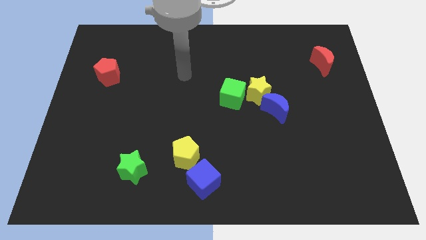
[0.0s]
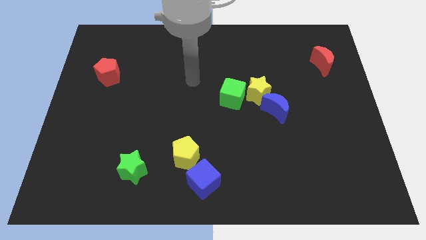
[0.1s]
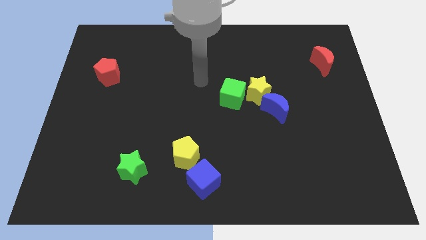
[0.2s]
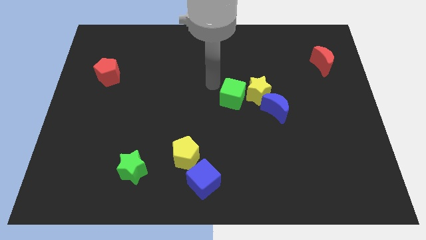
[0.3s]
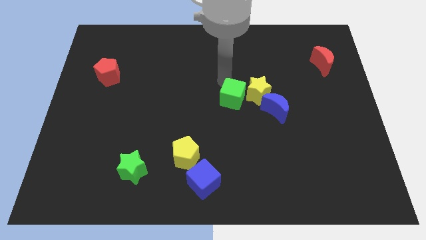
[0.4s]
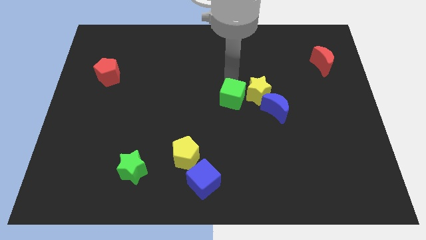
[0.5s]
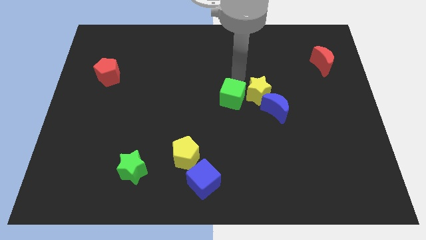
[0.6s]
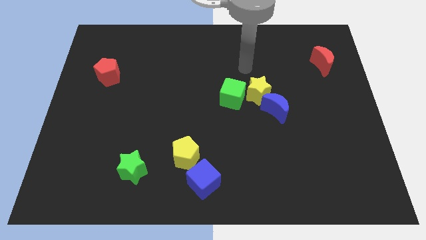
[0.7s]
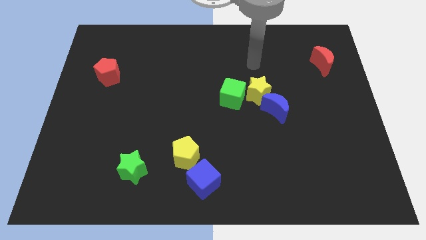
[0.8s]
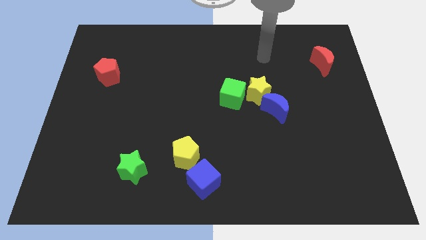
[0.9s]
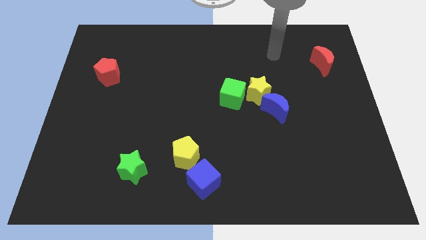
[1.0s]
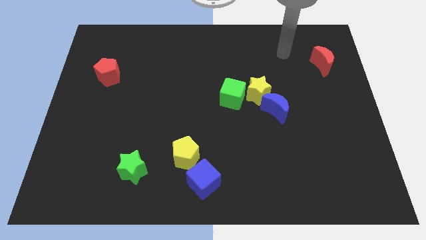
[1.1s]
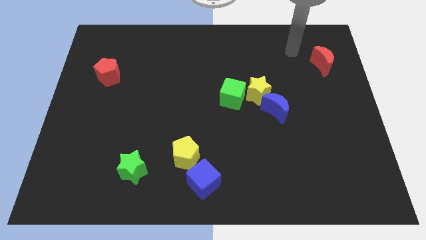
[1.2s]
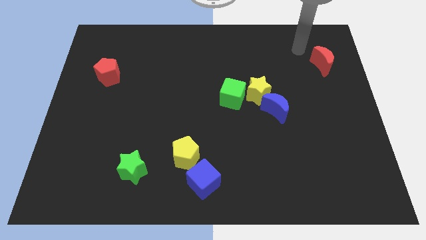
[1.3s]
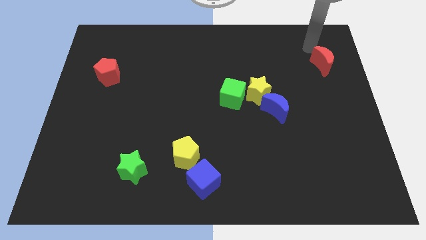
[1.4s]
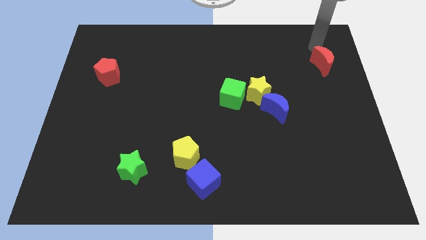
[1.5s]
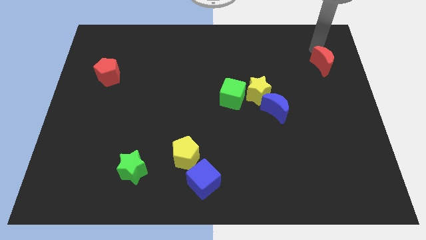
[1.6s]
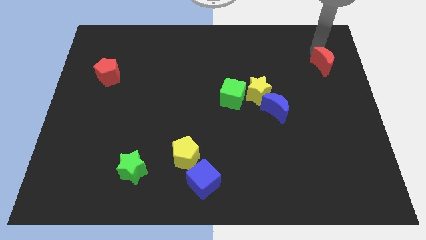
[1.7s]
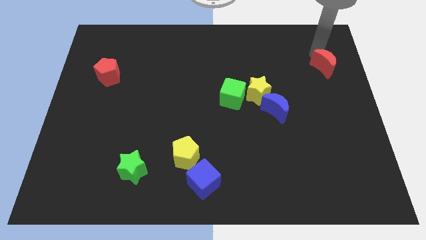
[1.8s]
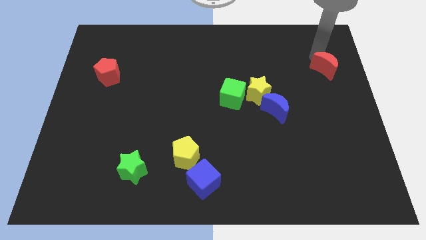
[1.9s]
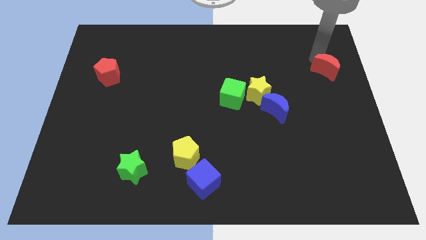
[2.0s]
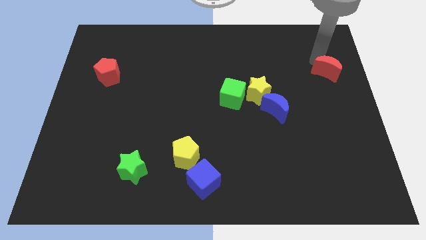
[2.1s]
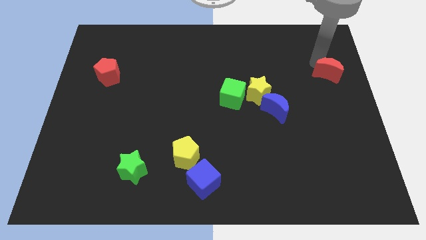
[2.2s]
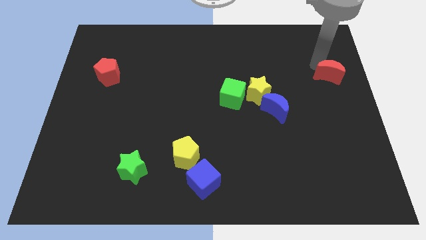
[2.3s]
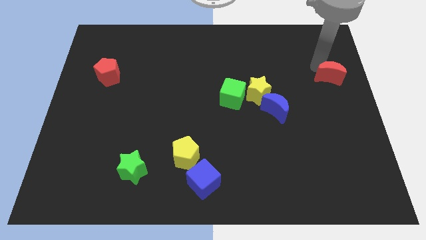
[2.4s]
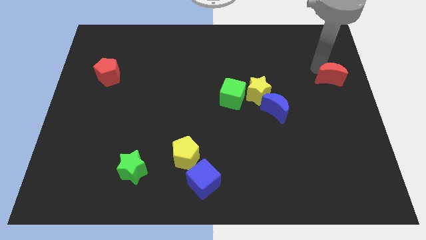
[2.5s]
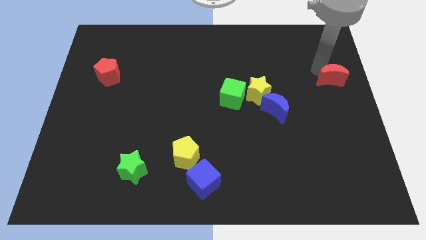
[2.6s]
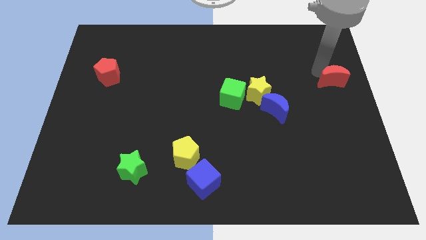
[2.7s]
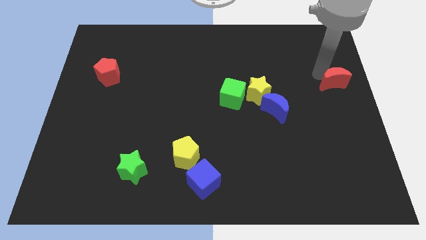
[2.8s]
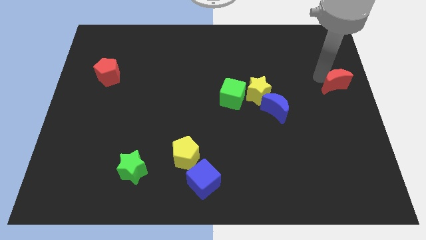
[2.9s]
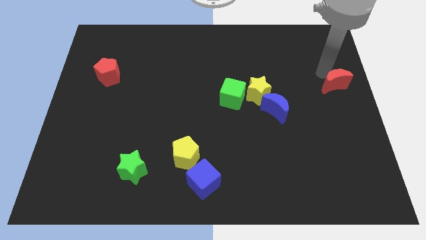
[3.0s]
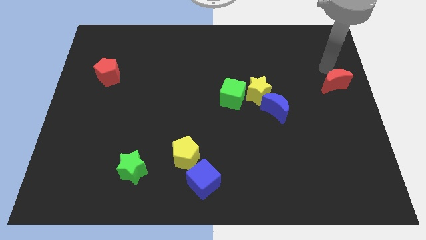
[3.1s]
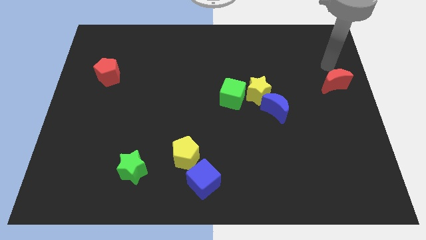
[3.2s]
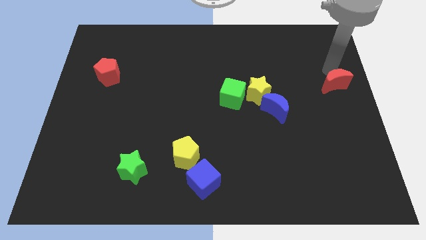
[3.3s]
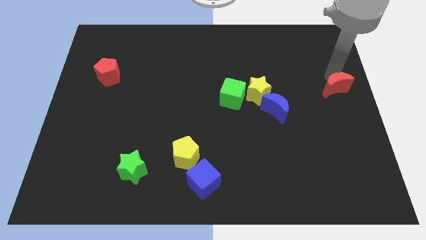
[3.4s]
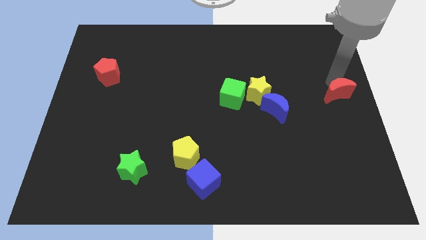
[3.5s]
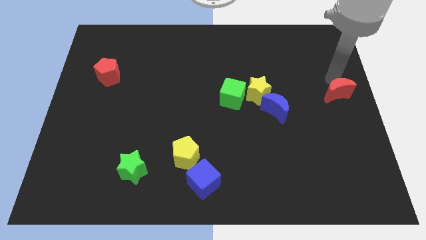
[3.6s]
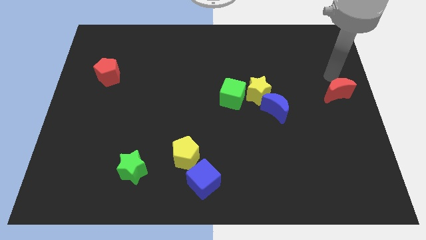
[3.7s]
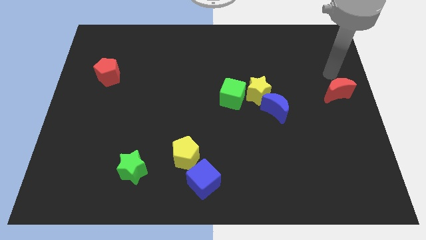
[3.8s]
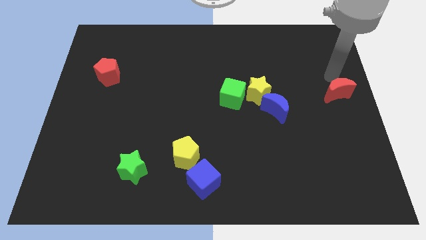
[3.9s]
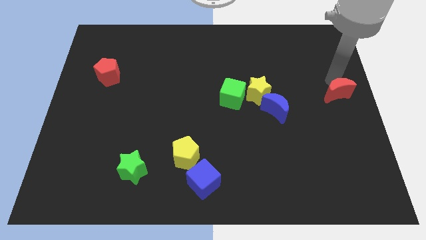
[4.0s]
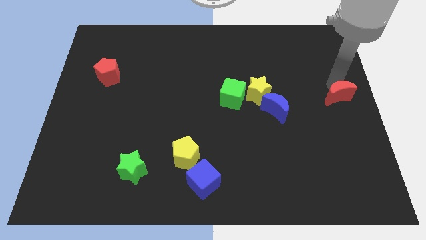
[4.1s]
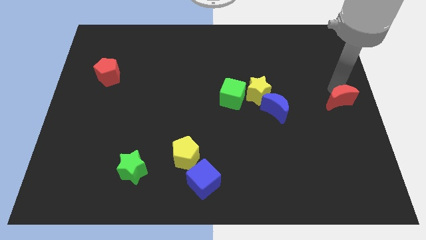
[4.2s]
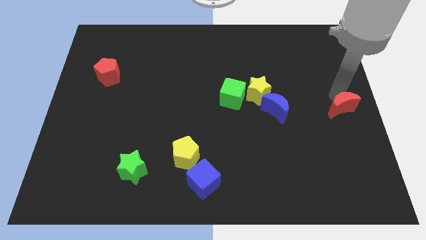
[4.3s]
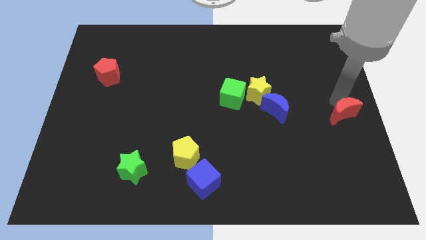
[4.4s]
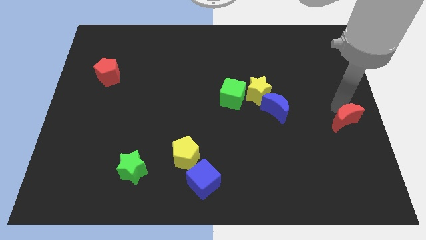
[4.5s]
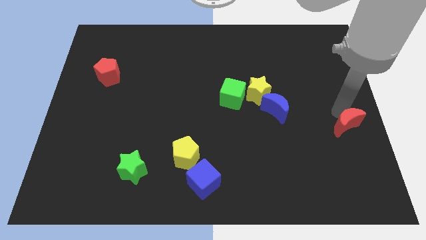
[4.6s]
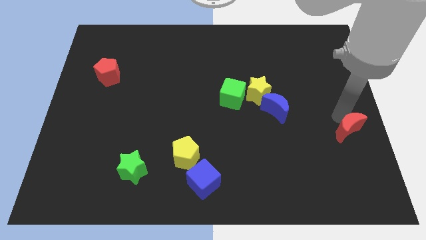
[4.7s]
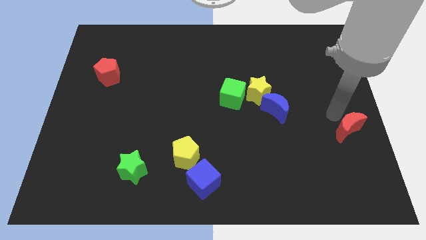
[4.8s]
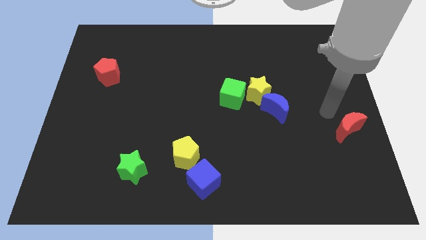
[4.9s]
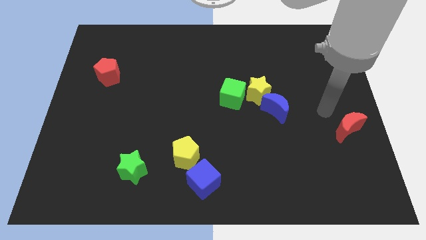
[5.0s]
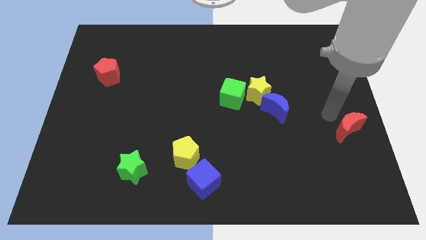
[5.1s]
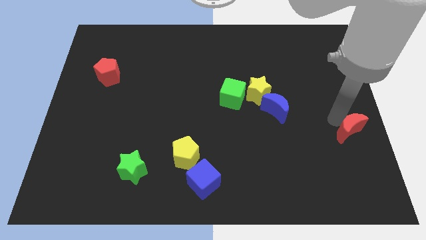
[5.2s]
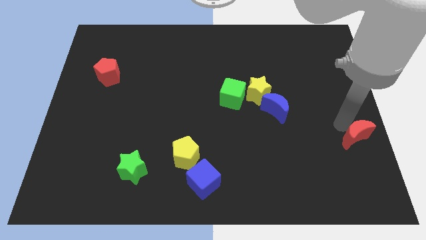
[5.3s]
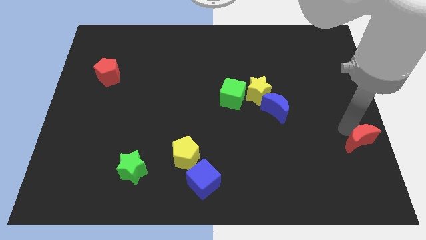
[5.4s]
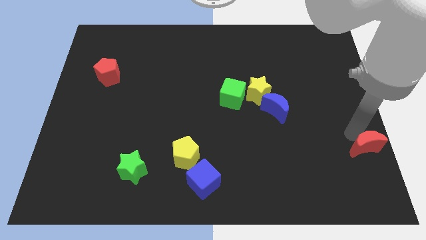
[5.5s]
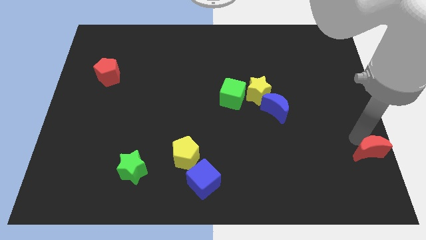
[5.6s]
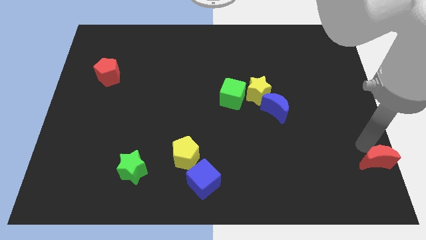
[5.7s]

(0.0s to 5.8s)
move the red moon to the bottom right corner

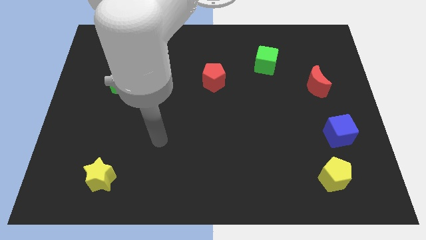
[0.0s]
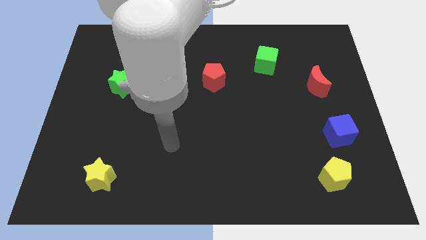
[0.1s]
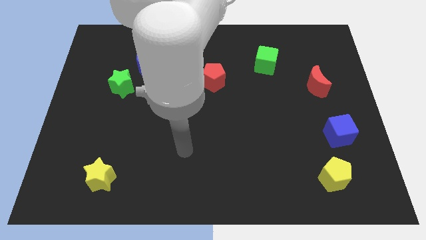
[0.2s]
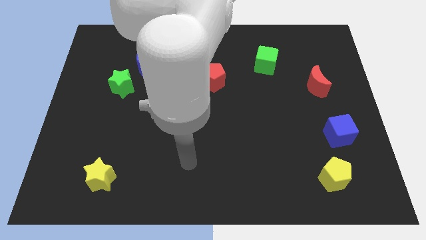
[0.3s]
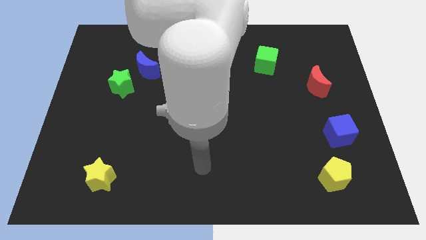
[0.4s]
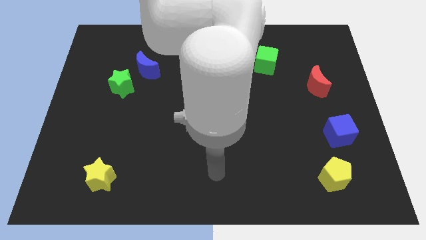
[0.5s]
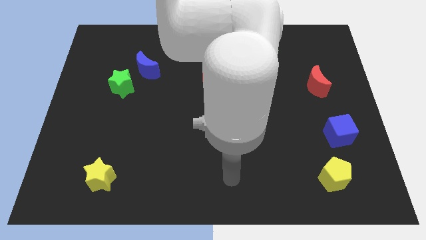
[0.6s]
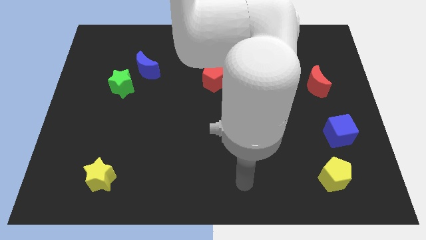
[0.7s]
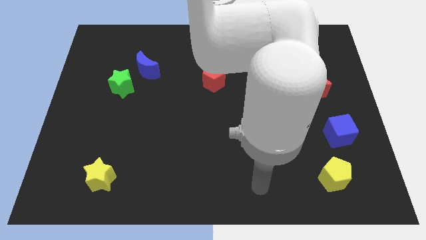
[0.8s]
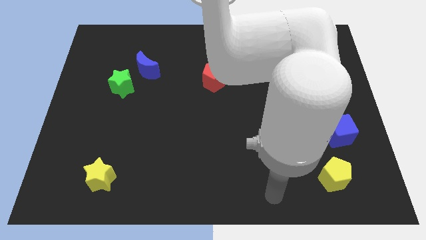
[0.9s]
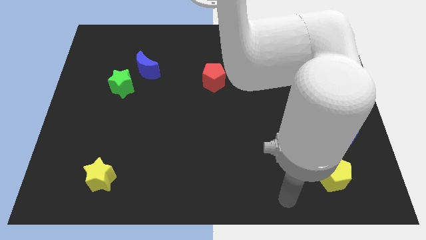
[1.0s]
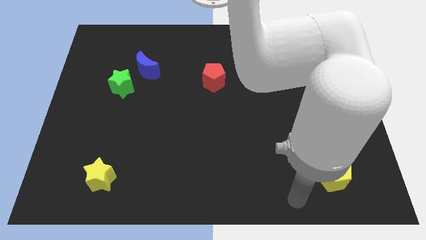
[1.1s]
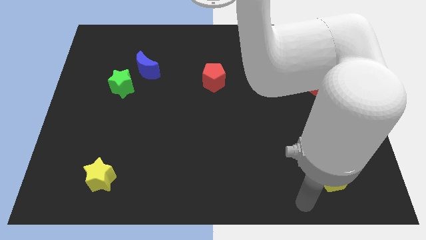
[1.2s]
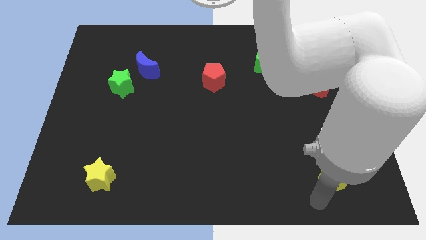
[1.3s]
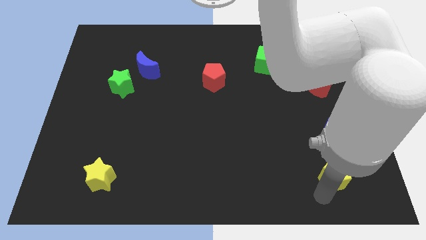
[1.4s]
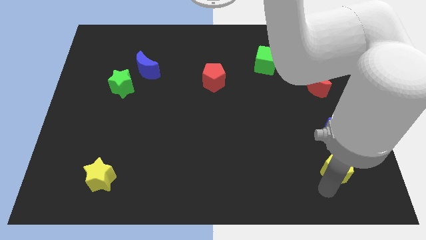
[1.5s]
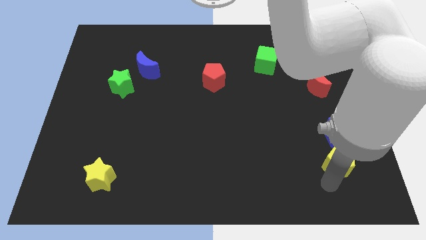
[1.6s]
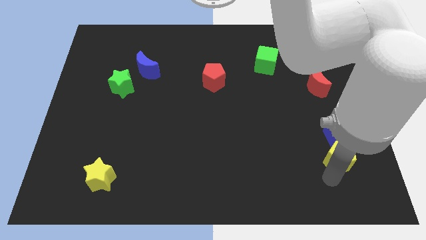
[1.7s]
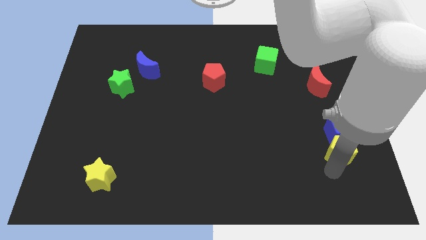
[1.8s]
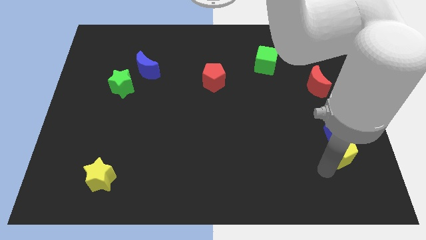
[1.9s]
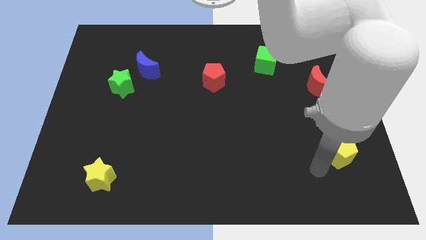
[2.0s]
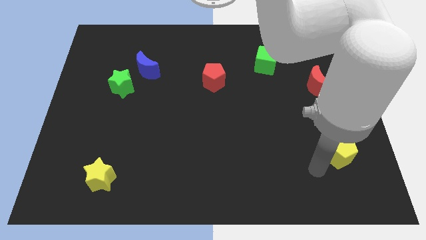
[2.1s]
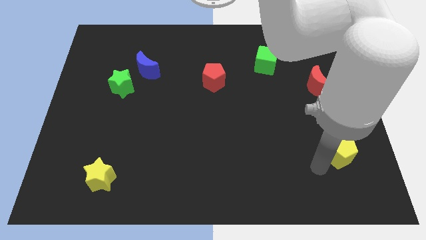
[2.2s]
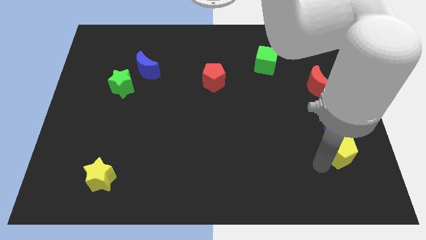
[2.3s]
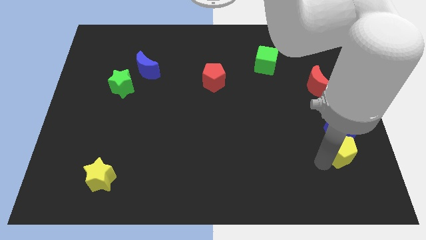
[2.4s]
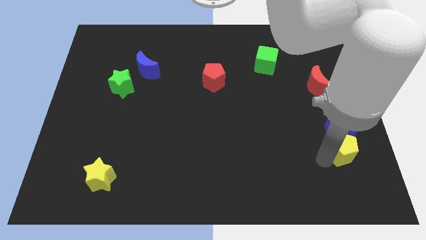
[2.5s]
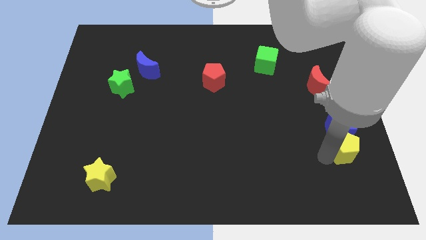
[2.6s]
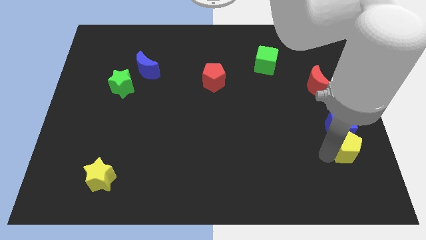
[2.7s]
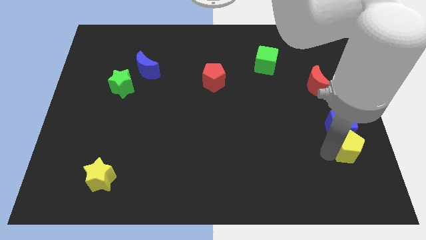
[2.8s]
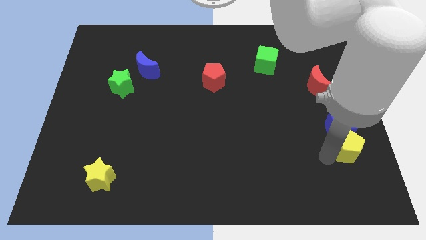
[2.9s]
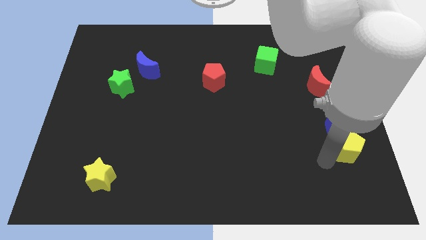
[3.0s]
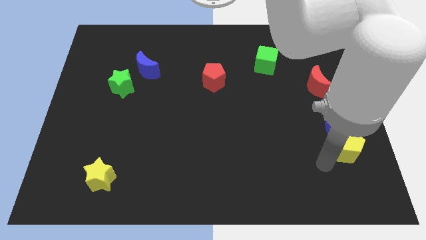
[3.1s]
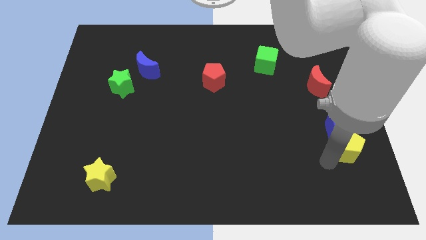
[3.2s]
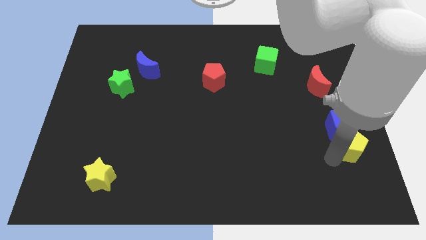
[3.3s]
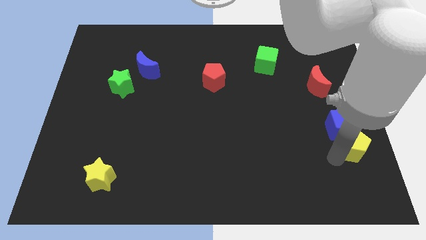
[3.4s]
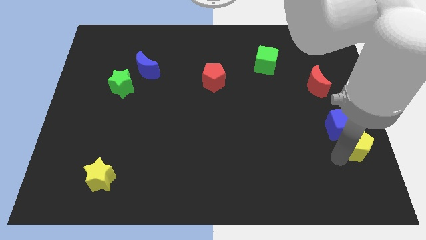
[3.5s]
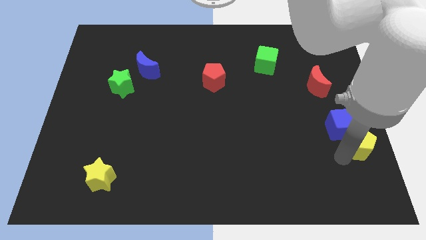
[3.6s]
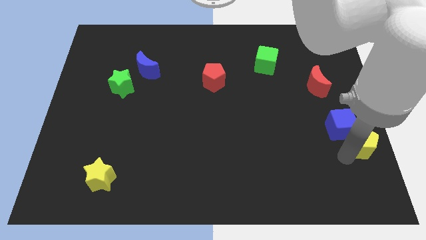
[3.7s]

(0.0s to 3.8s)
push the yellow pentagon to the right side
